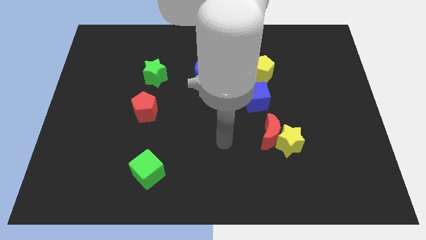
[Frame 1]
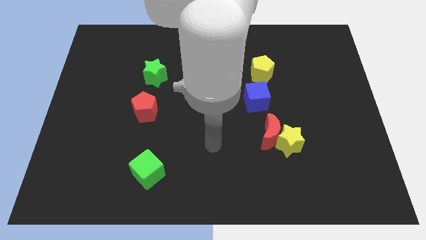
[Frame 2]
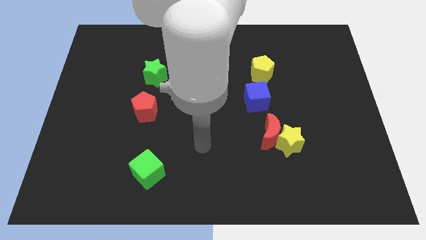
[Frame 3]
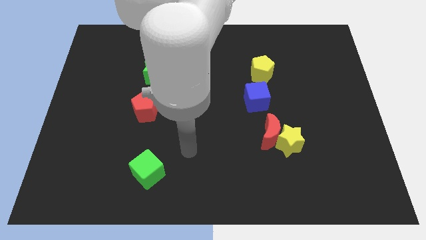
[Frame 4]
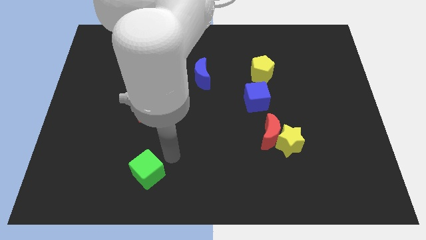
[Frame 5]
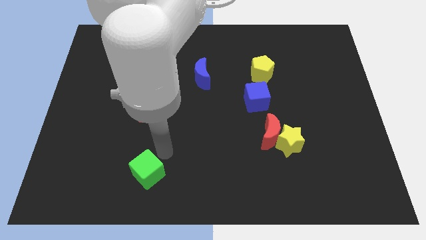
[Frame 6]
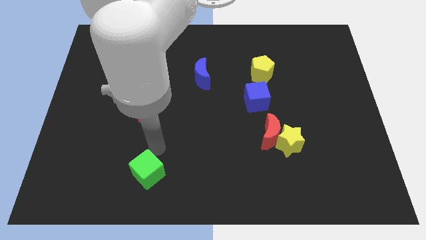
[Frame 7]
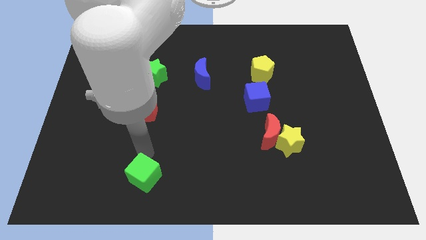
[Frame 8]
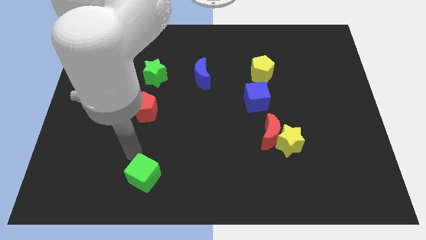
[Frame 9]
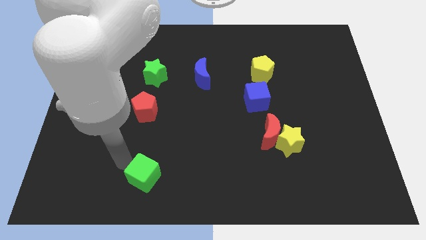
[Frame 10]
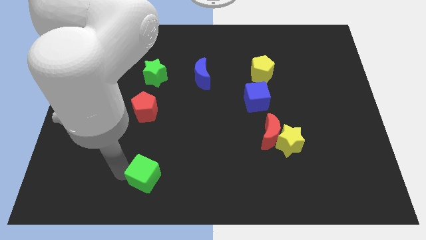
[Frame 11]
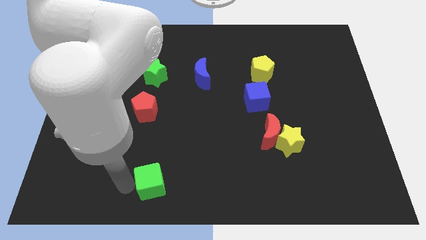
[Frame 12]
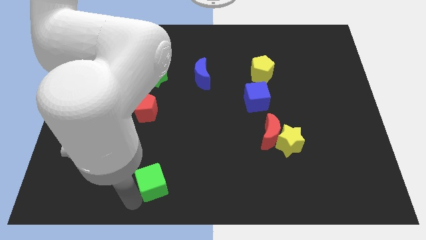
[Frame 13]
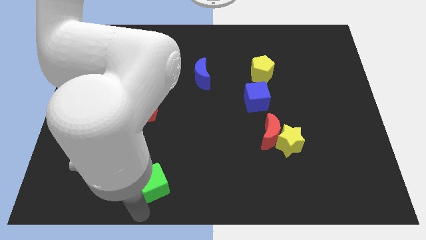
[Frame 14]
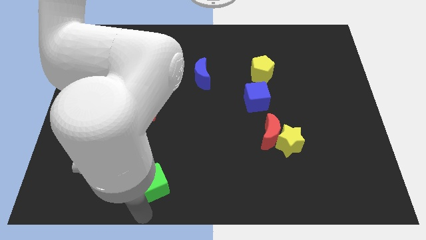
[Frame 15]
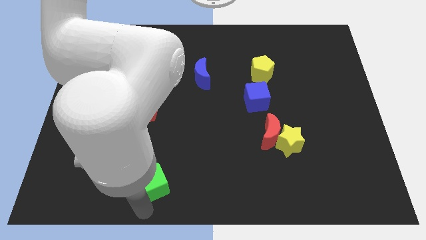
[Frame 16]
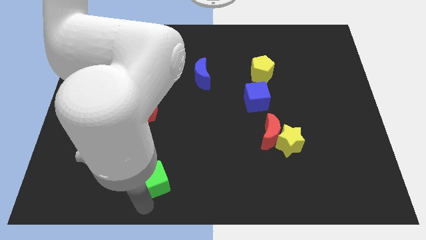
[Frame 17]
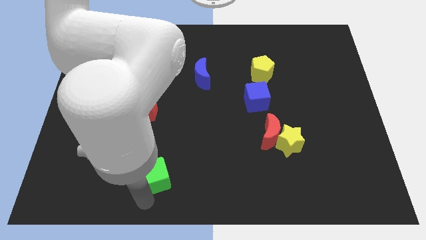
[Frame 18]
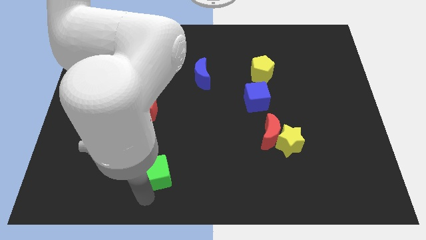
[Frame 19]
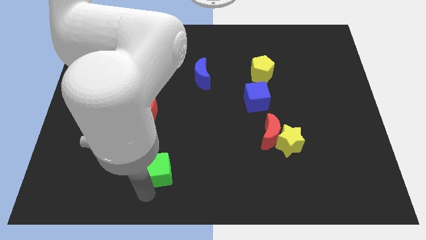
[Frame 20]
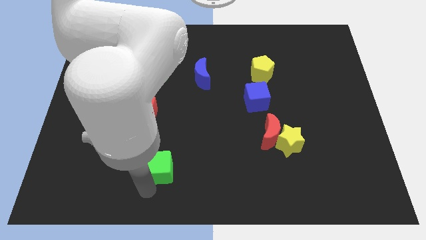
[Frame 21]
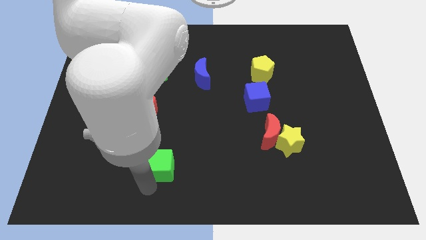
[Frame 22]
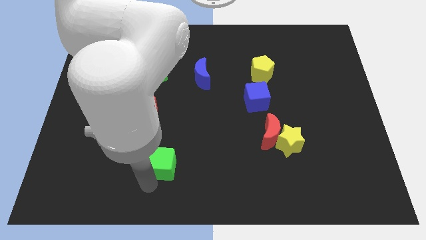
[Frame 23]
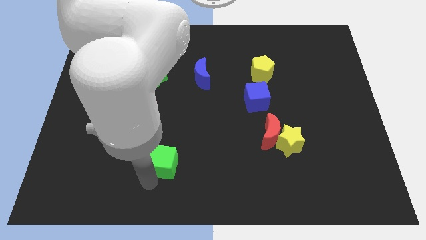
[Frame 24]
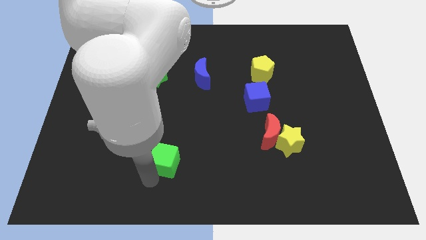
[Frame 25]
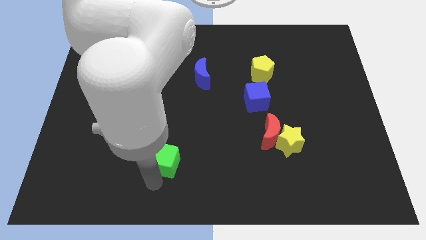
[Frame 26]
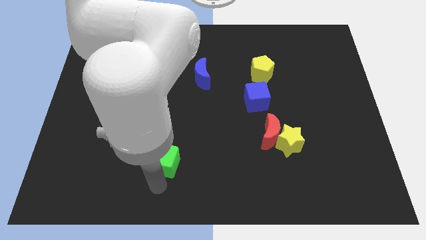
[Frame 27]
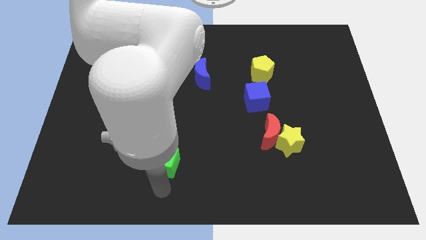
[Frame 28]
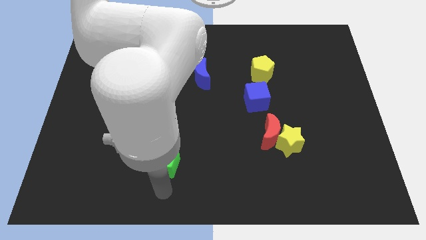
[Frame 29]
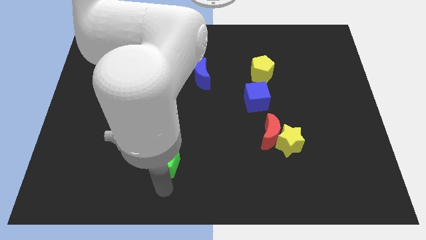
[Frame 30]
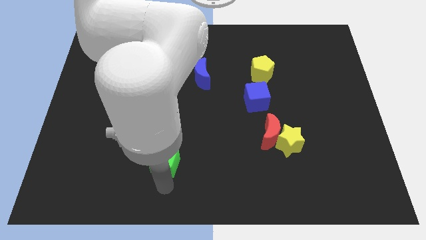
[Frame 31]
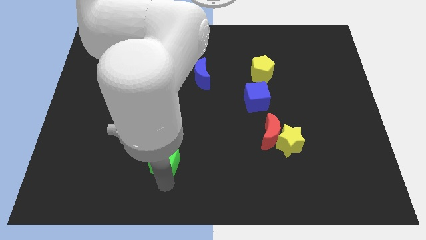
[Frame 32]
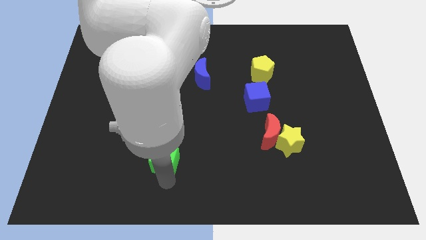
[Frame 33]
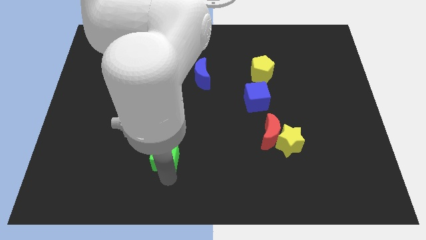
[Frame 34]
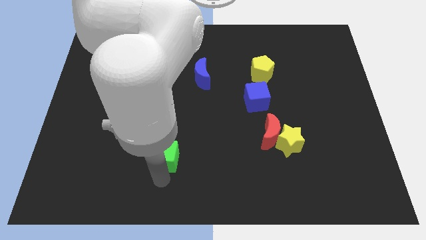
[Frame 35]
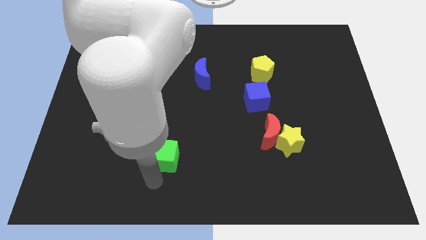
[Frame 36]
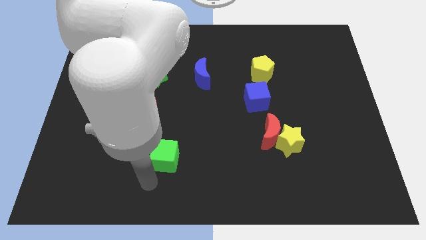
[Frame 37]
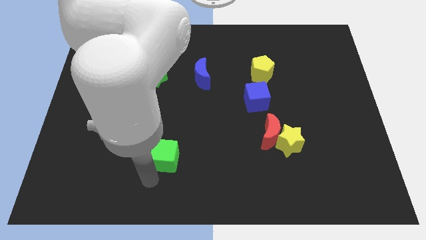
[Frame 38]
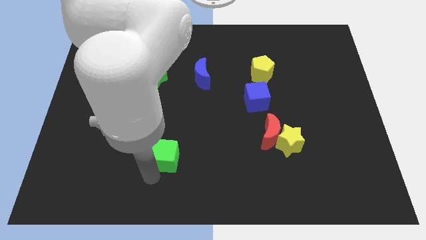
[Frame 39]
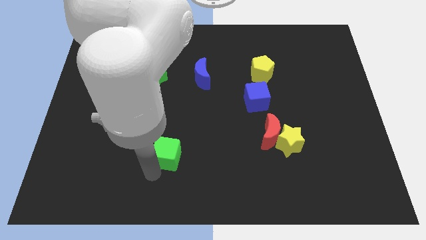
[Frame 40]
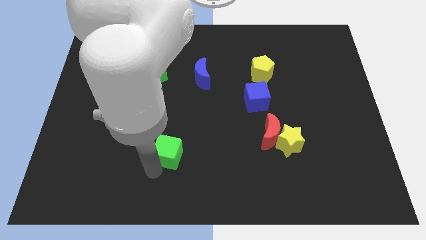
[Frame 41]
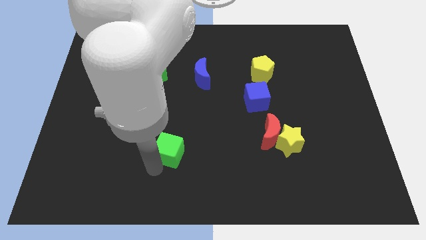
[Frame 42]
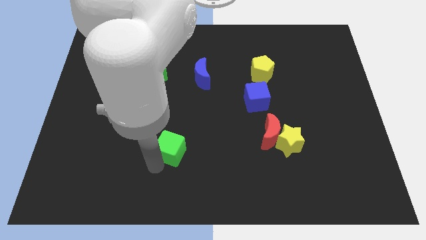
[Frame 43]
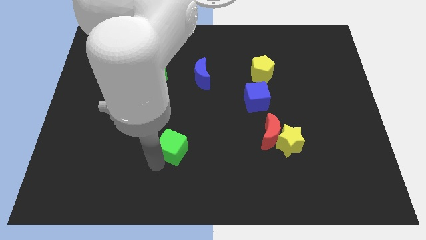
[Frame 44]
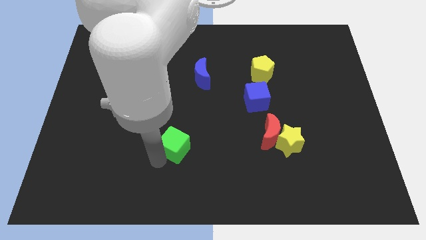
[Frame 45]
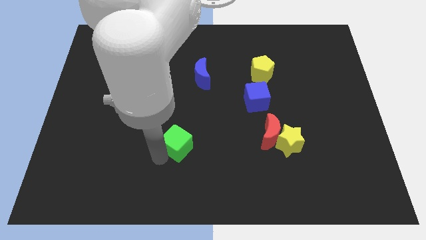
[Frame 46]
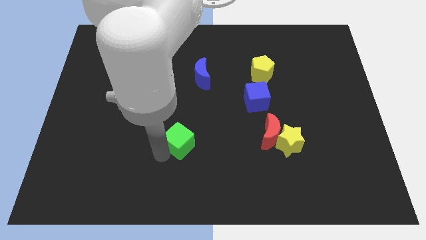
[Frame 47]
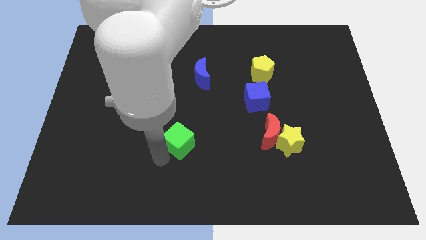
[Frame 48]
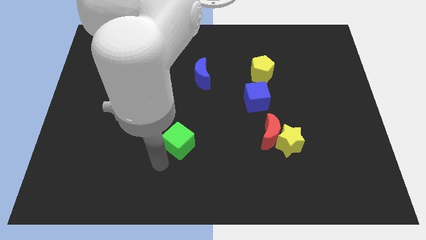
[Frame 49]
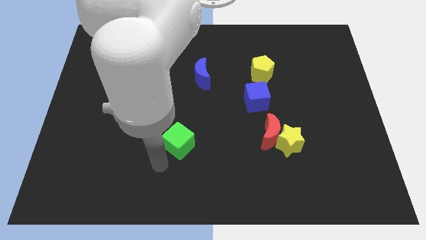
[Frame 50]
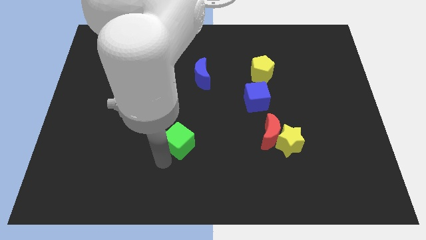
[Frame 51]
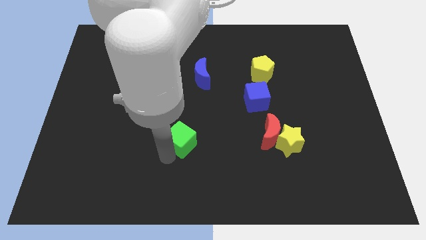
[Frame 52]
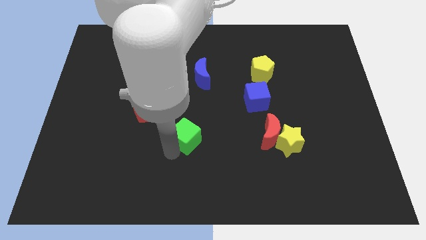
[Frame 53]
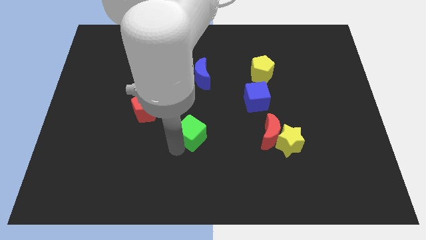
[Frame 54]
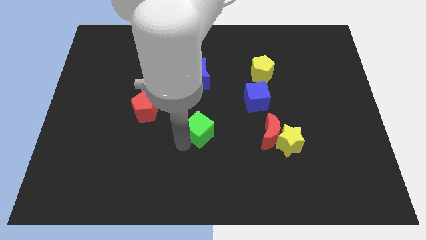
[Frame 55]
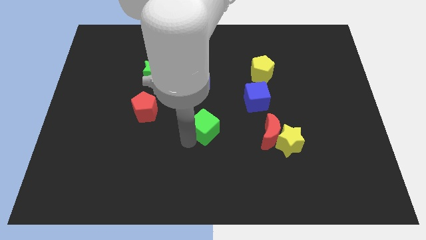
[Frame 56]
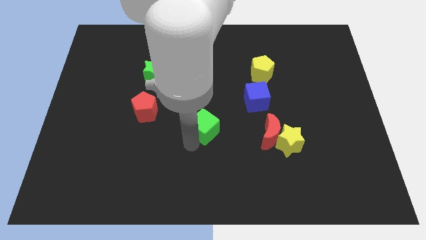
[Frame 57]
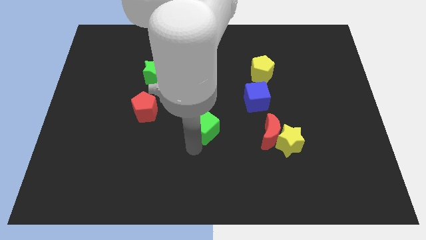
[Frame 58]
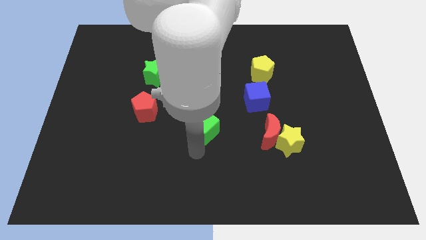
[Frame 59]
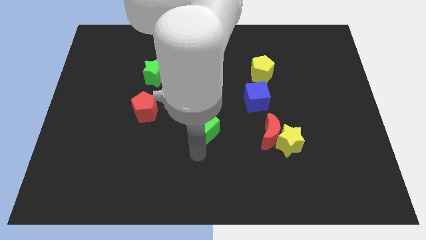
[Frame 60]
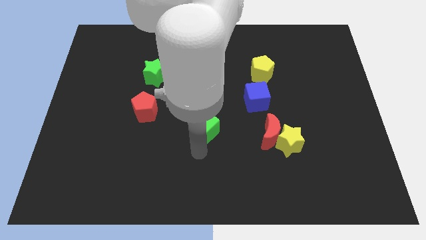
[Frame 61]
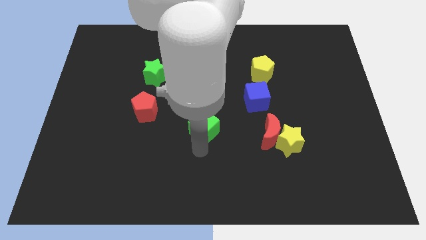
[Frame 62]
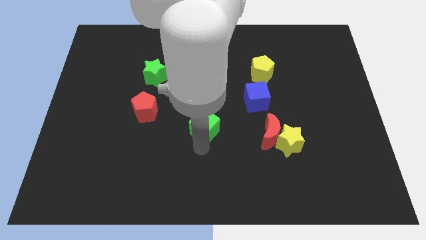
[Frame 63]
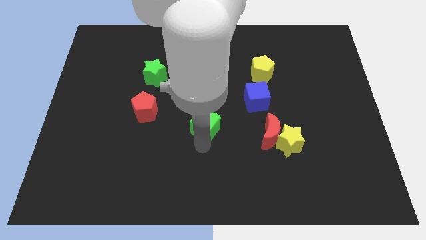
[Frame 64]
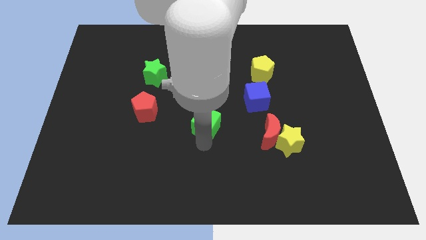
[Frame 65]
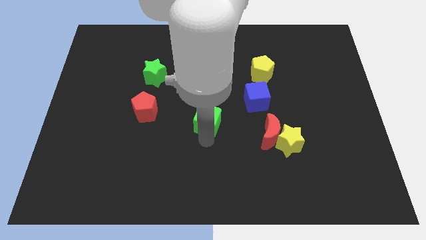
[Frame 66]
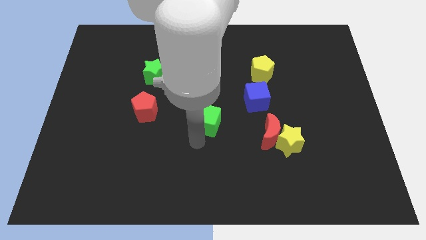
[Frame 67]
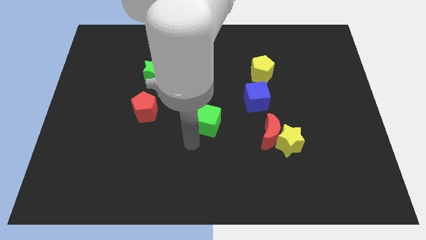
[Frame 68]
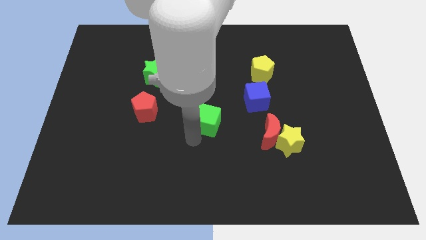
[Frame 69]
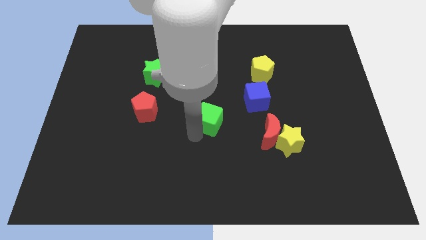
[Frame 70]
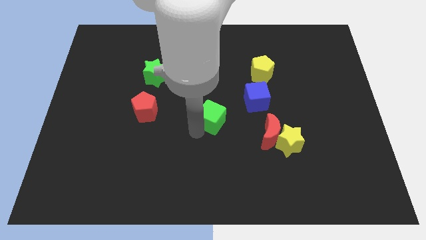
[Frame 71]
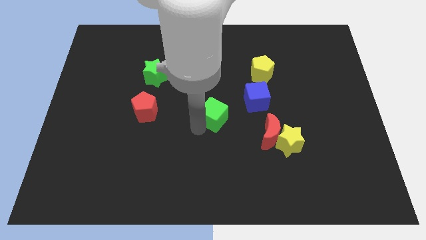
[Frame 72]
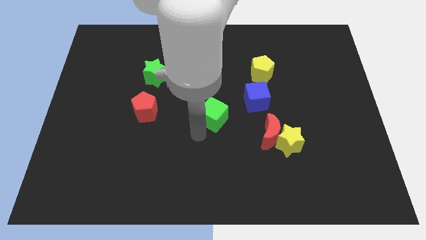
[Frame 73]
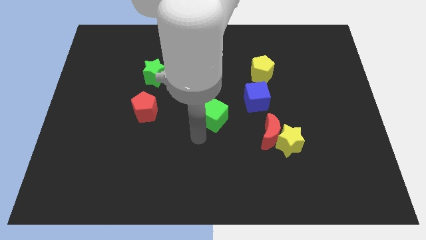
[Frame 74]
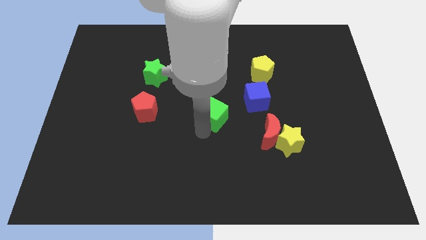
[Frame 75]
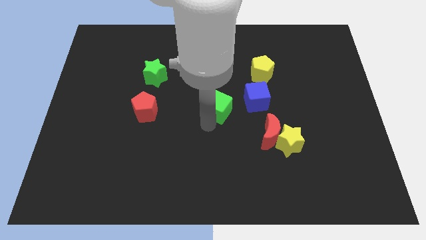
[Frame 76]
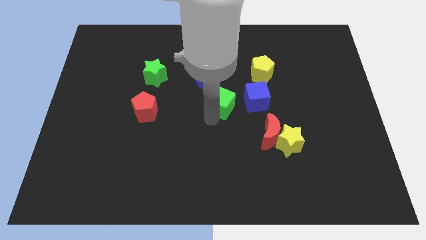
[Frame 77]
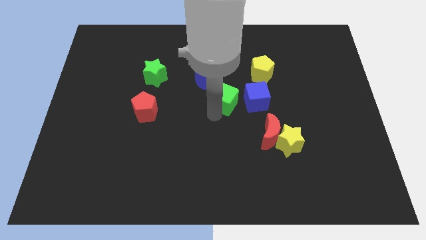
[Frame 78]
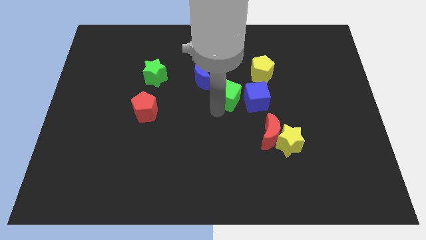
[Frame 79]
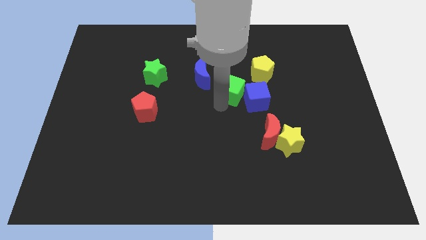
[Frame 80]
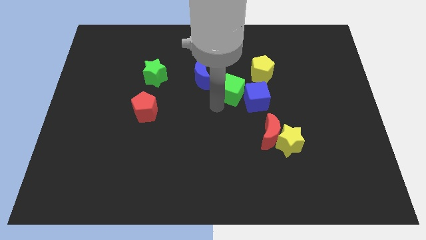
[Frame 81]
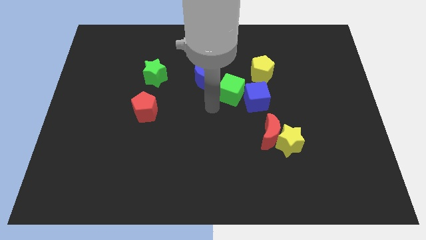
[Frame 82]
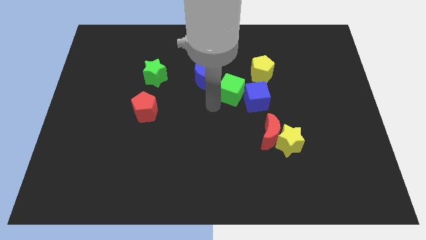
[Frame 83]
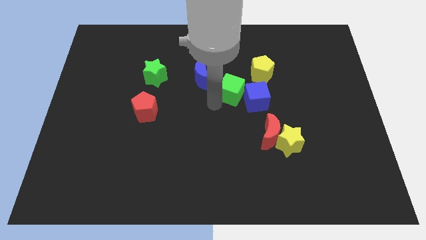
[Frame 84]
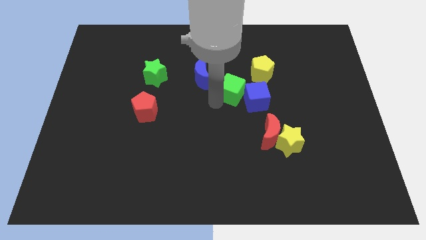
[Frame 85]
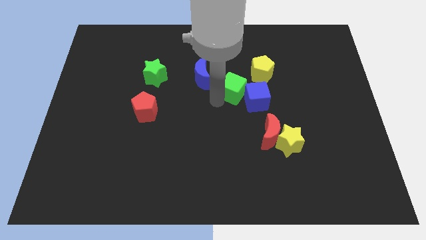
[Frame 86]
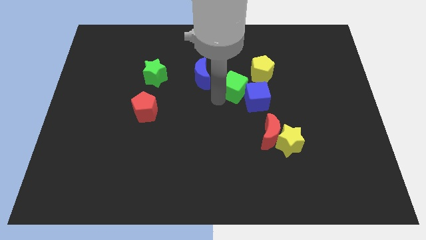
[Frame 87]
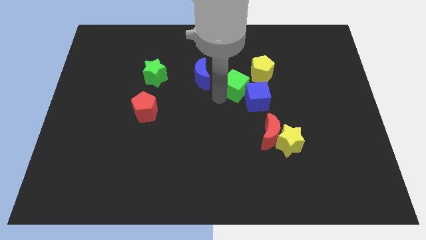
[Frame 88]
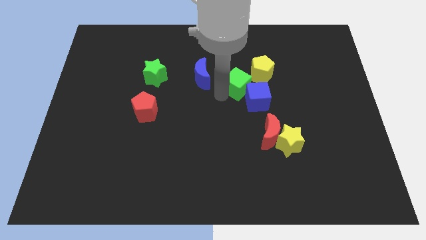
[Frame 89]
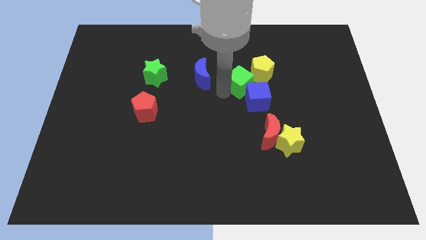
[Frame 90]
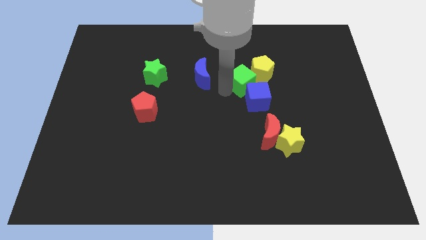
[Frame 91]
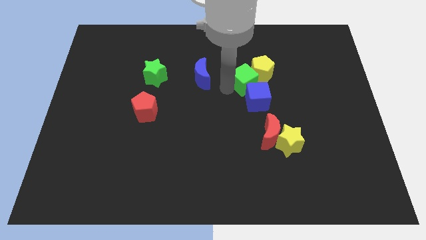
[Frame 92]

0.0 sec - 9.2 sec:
slide the green cube towards the yellow pentagon
